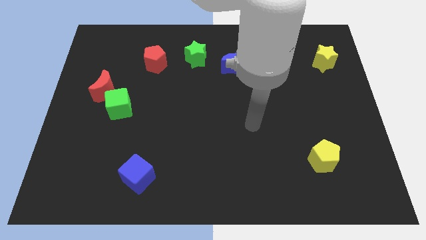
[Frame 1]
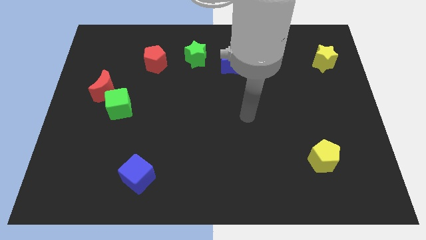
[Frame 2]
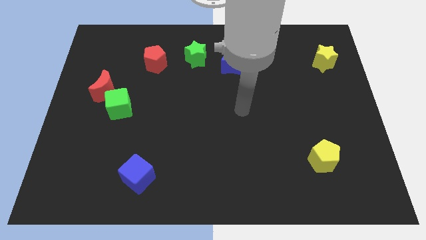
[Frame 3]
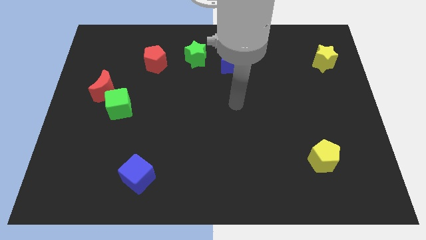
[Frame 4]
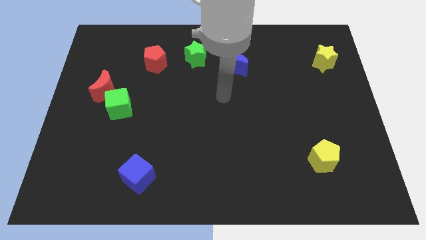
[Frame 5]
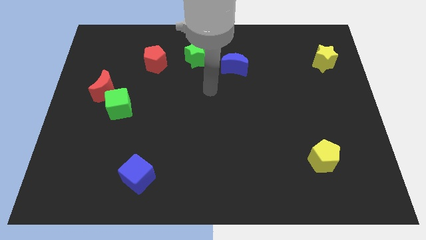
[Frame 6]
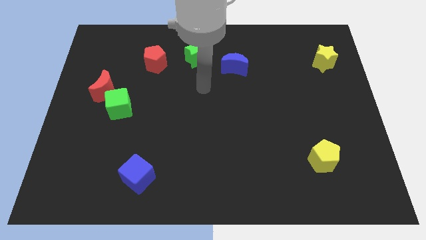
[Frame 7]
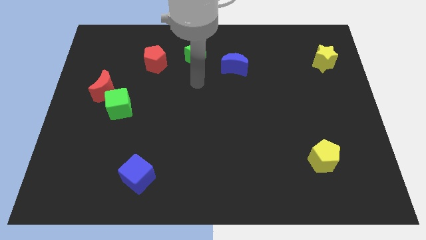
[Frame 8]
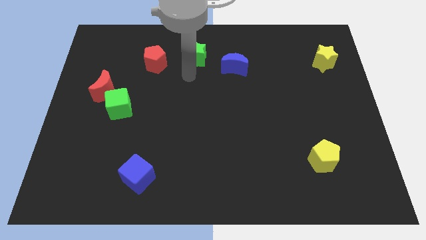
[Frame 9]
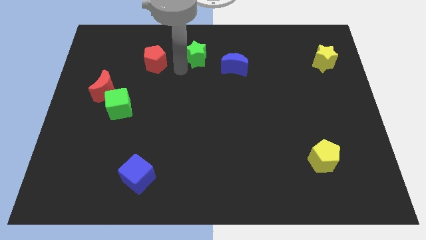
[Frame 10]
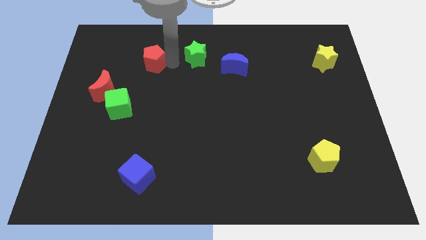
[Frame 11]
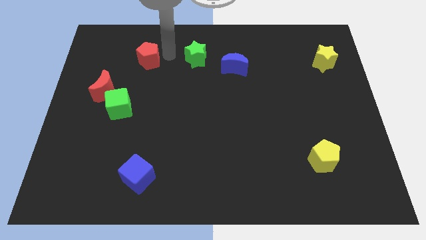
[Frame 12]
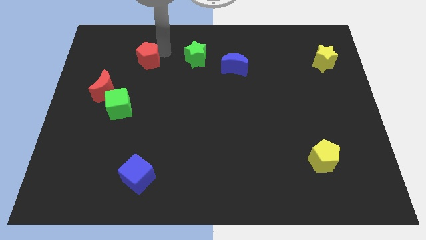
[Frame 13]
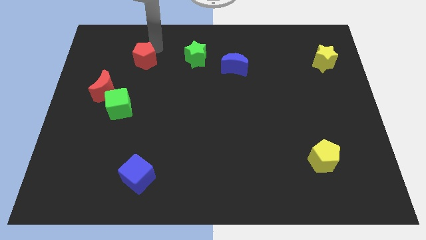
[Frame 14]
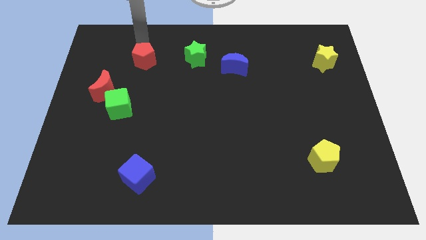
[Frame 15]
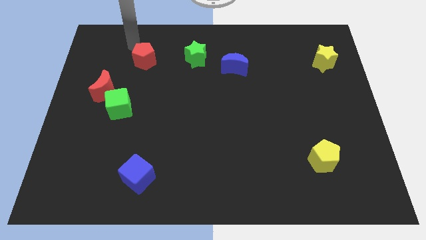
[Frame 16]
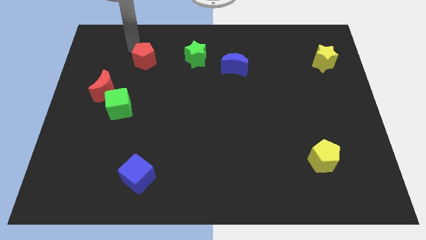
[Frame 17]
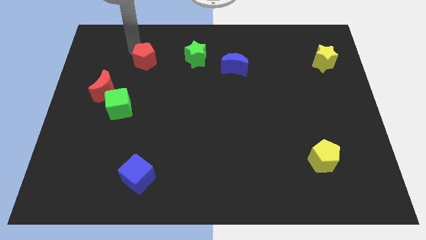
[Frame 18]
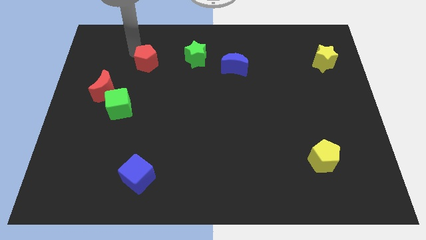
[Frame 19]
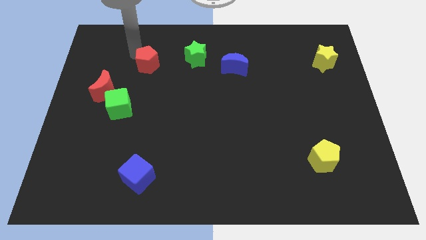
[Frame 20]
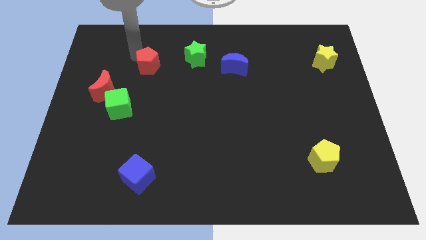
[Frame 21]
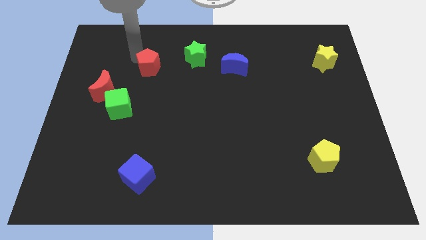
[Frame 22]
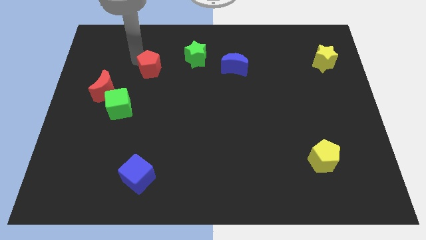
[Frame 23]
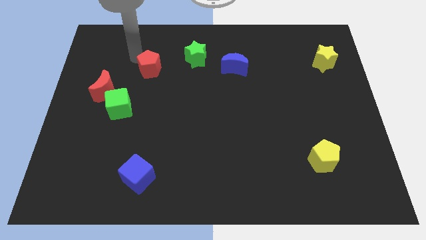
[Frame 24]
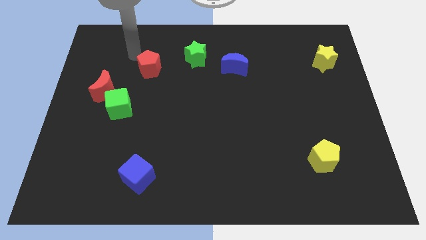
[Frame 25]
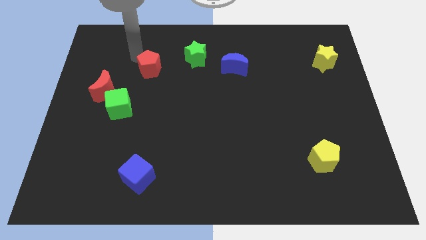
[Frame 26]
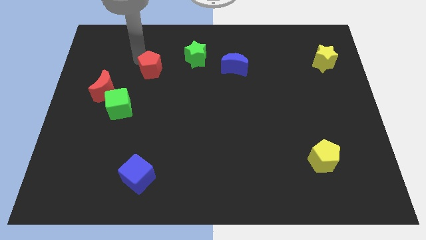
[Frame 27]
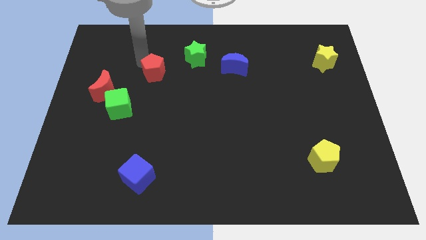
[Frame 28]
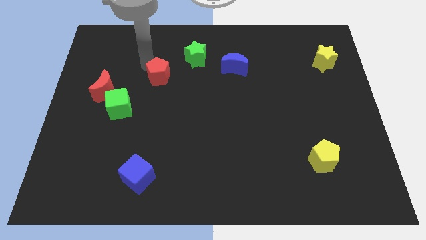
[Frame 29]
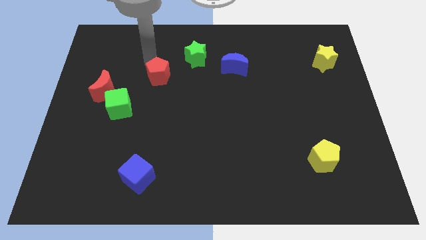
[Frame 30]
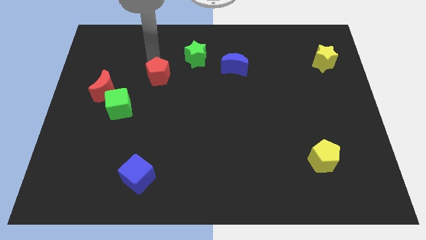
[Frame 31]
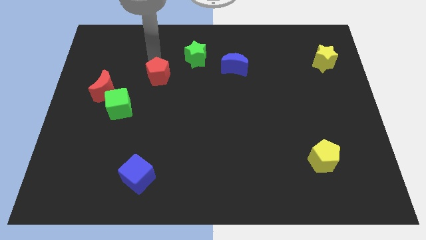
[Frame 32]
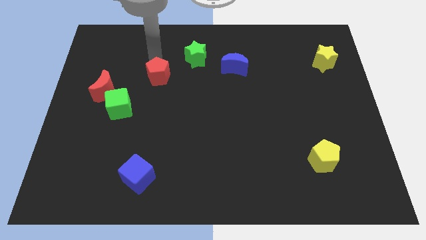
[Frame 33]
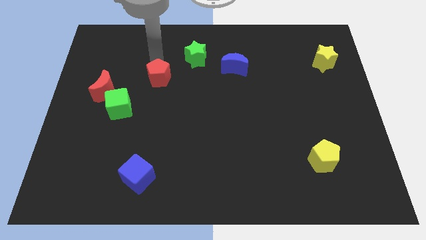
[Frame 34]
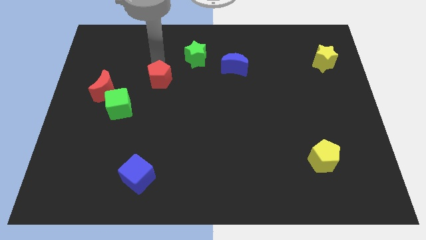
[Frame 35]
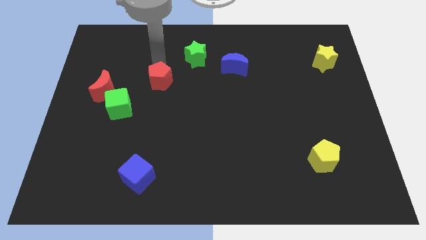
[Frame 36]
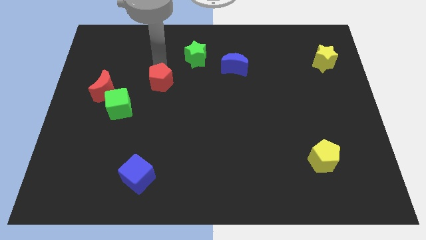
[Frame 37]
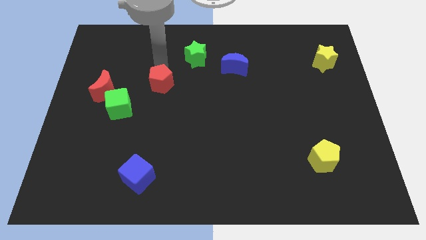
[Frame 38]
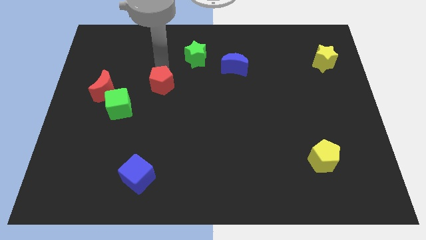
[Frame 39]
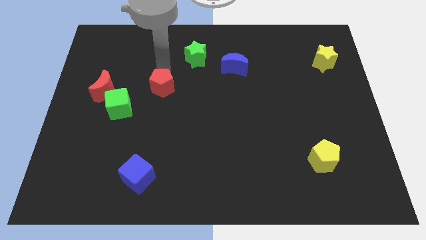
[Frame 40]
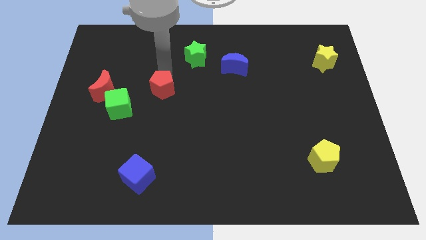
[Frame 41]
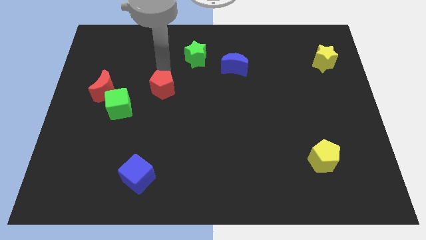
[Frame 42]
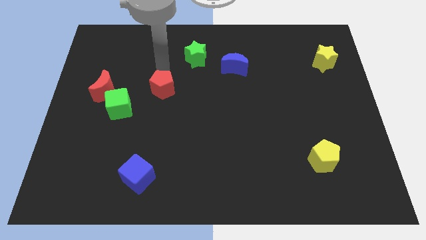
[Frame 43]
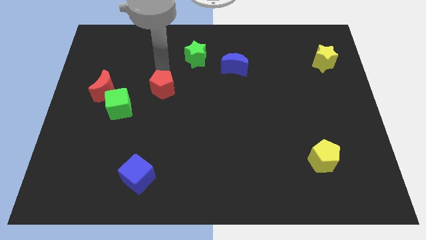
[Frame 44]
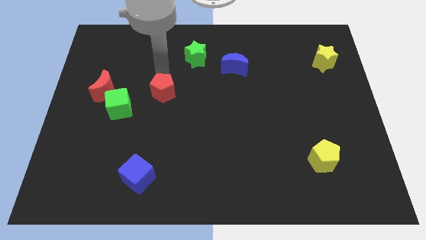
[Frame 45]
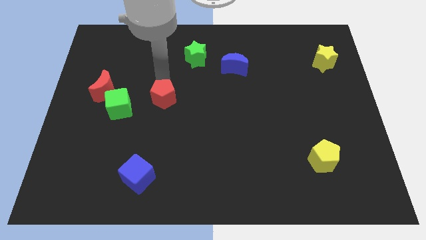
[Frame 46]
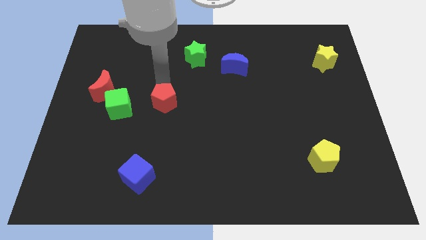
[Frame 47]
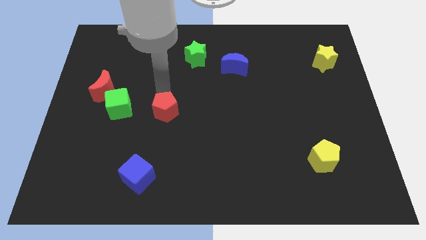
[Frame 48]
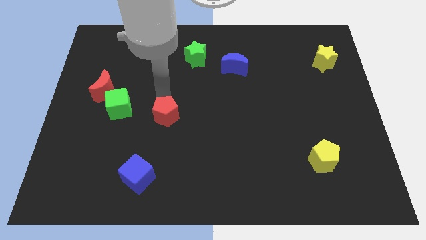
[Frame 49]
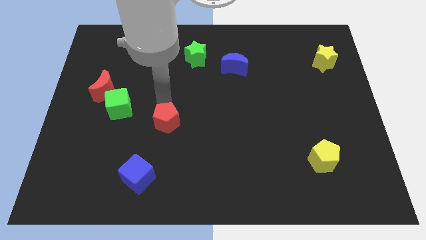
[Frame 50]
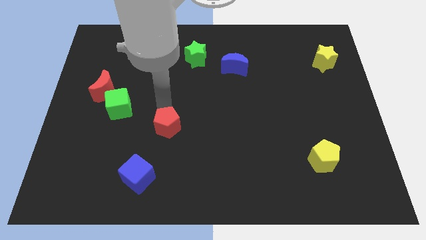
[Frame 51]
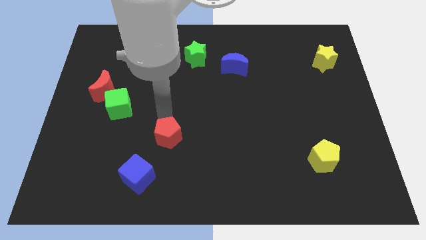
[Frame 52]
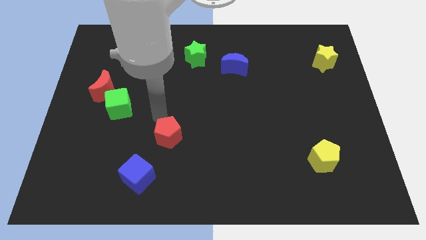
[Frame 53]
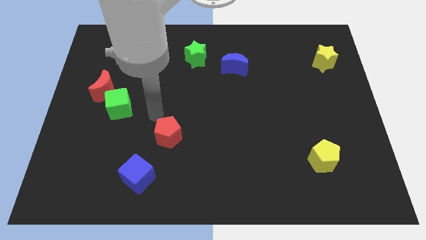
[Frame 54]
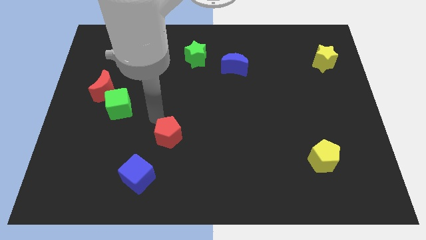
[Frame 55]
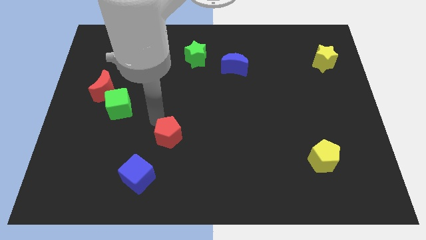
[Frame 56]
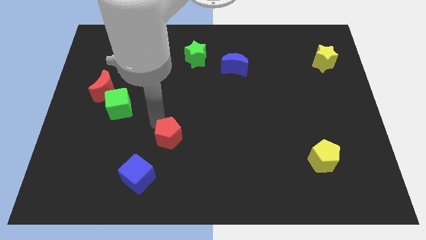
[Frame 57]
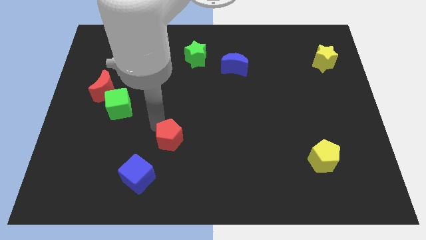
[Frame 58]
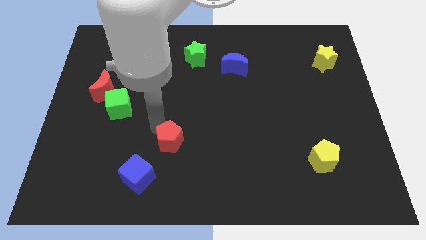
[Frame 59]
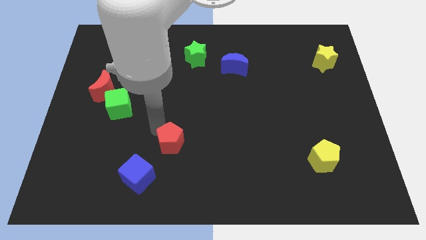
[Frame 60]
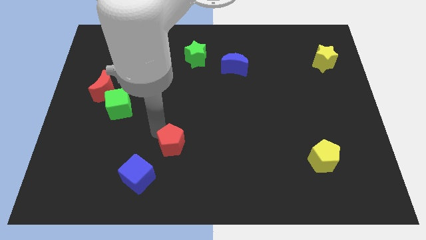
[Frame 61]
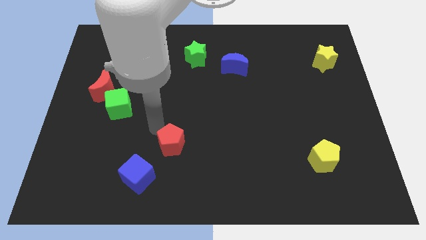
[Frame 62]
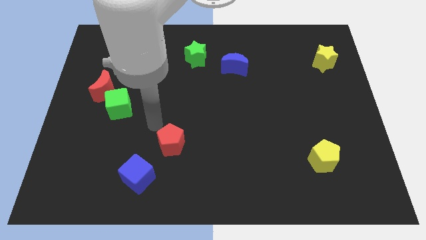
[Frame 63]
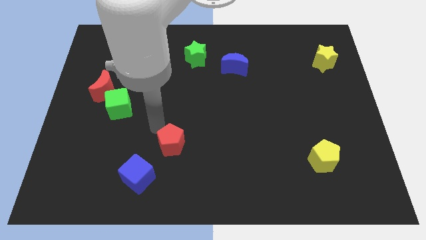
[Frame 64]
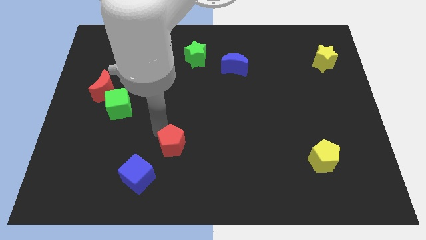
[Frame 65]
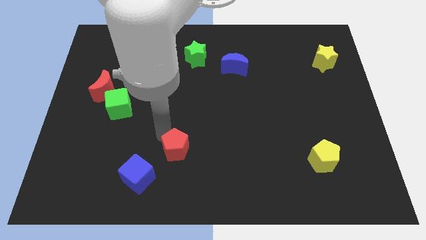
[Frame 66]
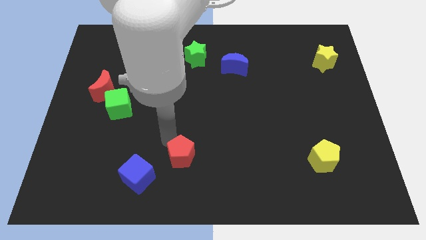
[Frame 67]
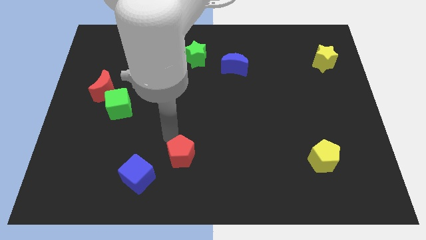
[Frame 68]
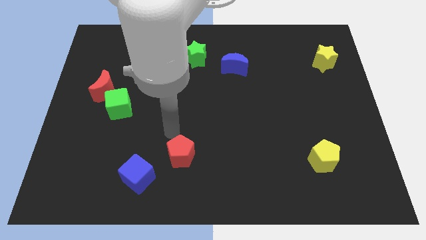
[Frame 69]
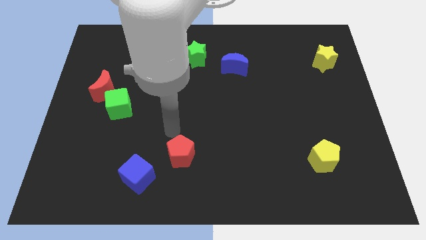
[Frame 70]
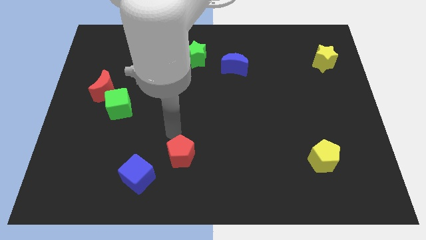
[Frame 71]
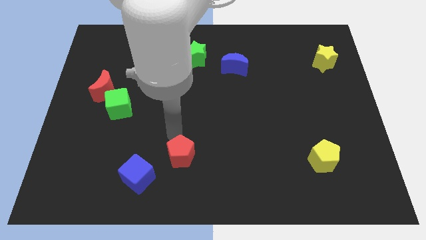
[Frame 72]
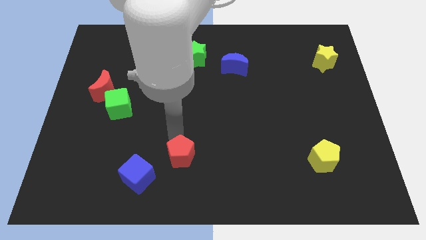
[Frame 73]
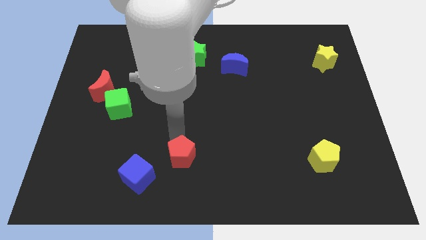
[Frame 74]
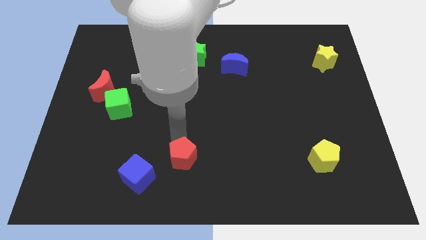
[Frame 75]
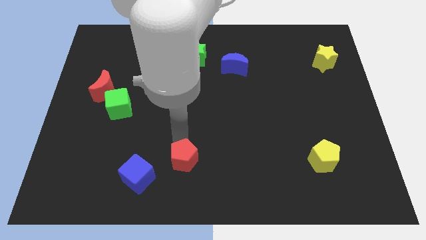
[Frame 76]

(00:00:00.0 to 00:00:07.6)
move the red pentagon to the bottom
